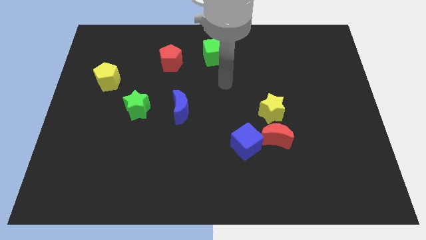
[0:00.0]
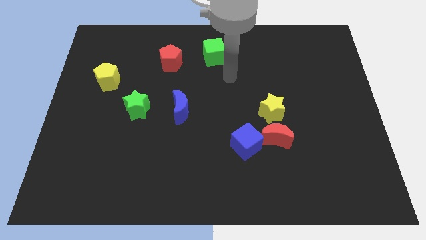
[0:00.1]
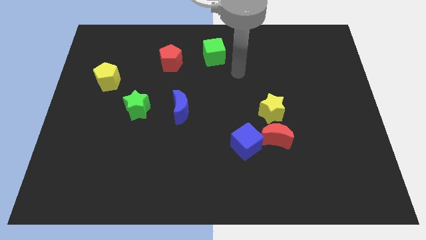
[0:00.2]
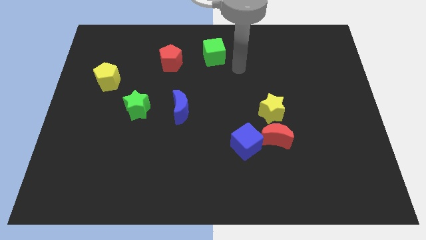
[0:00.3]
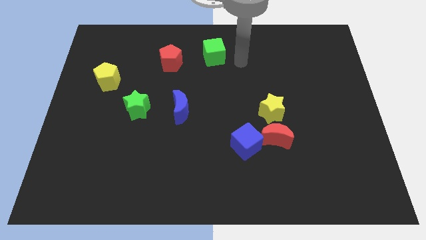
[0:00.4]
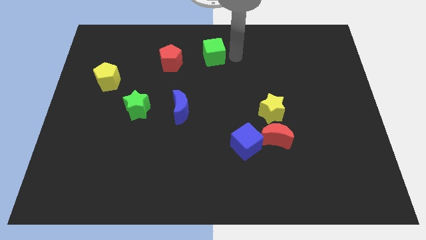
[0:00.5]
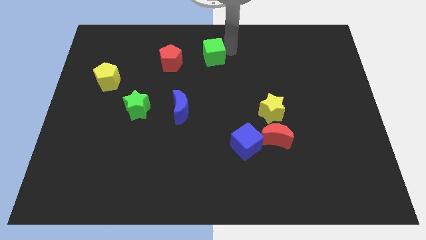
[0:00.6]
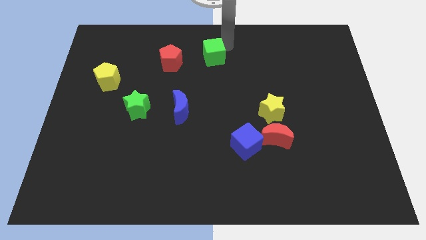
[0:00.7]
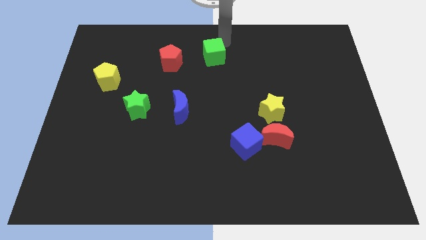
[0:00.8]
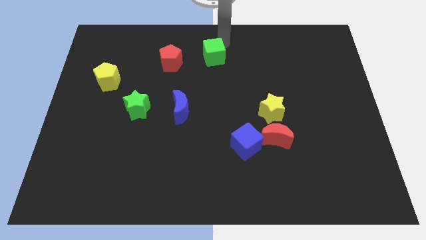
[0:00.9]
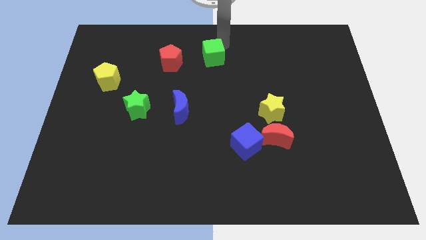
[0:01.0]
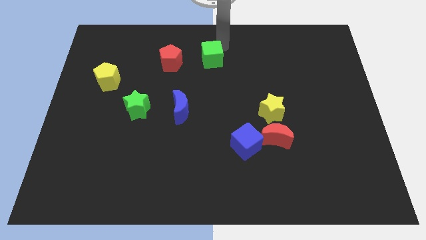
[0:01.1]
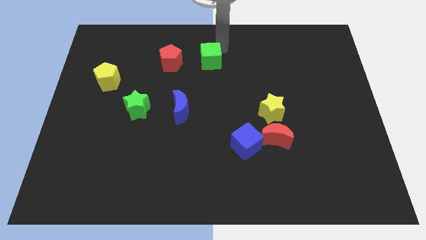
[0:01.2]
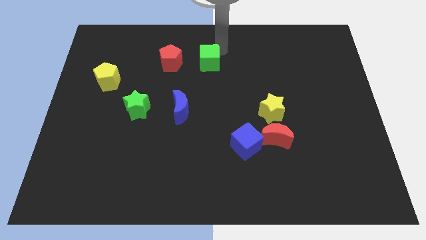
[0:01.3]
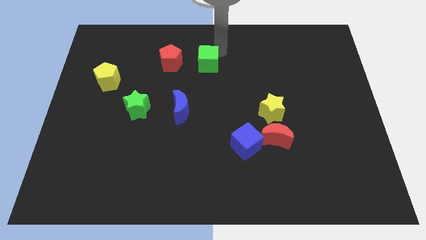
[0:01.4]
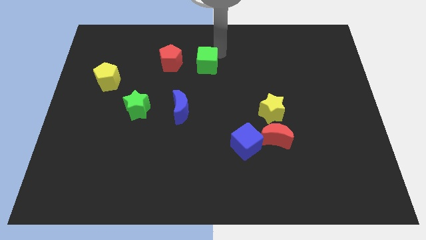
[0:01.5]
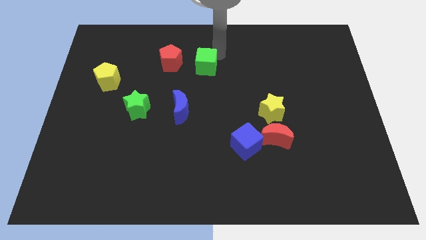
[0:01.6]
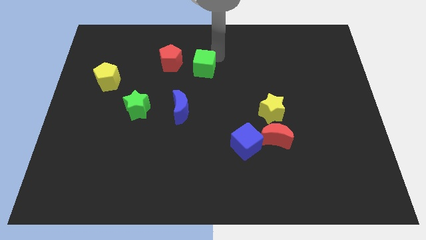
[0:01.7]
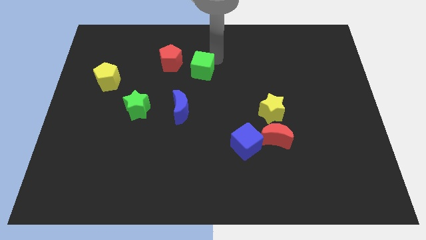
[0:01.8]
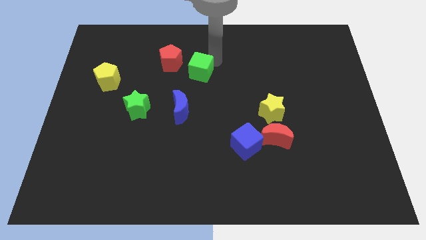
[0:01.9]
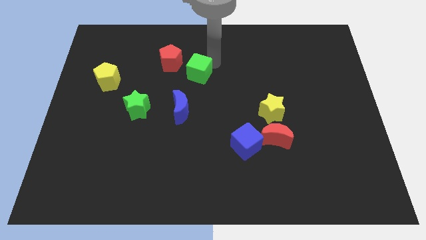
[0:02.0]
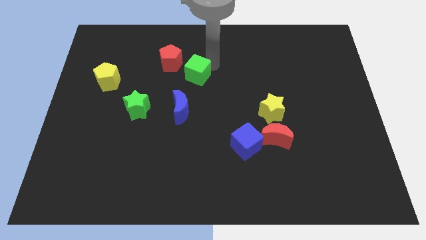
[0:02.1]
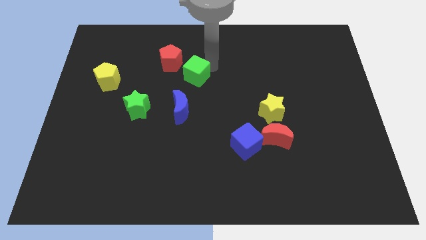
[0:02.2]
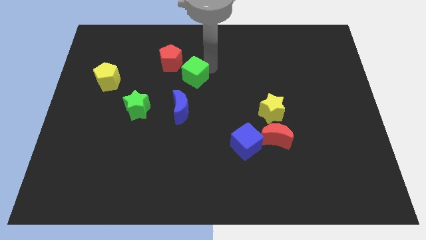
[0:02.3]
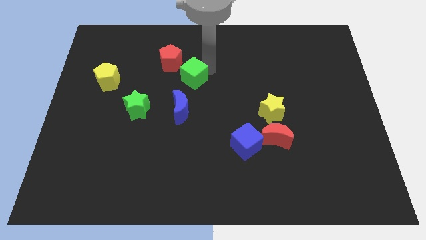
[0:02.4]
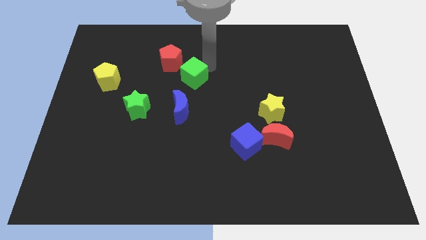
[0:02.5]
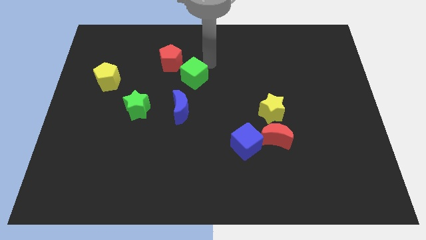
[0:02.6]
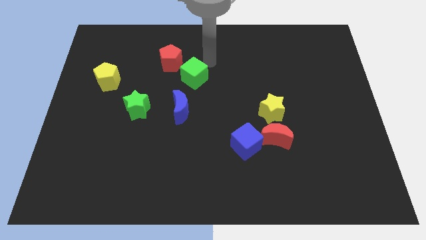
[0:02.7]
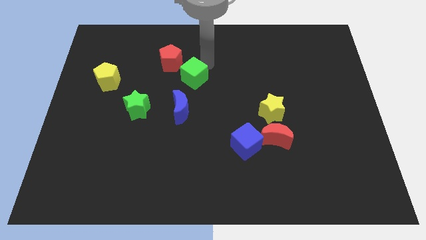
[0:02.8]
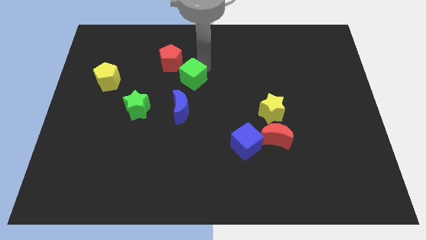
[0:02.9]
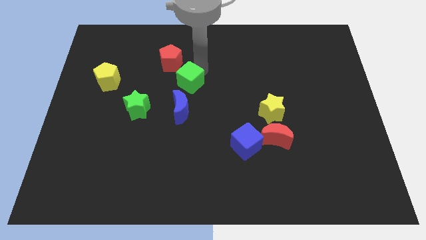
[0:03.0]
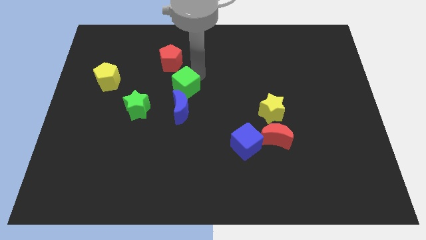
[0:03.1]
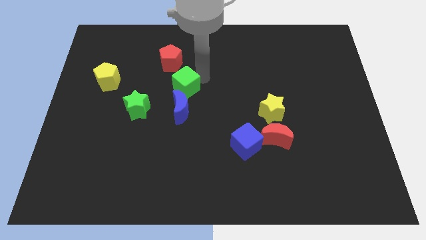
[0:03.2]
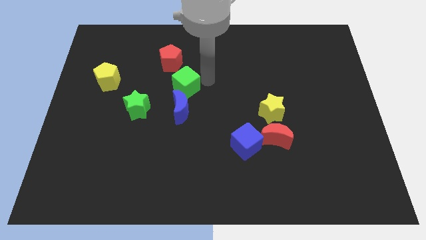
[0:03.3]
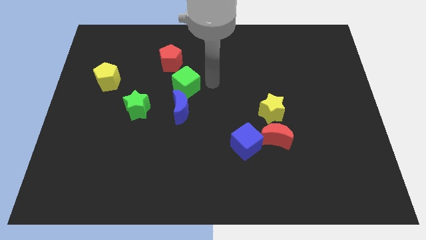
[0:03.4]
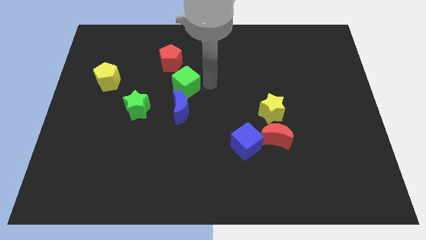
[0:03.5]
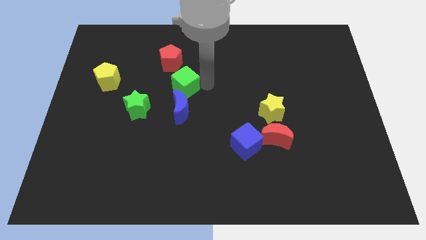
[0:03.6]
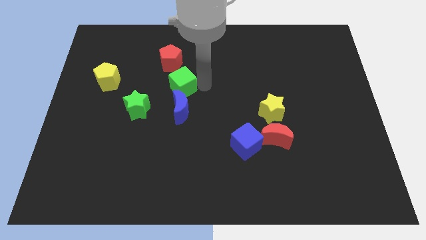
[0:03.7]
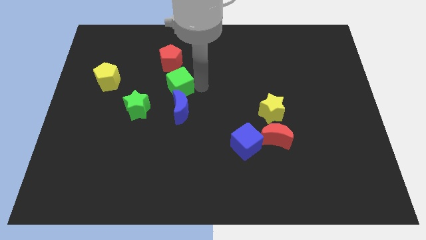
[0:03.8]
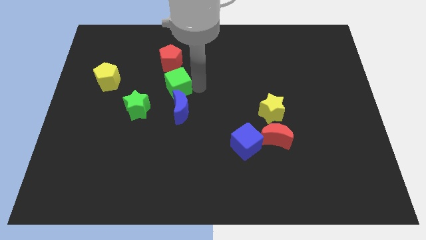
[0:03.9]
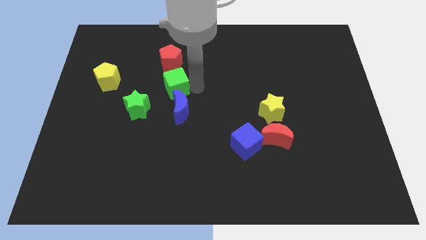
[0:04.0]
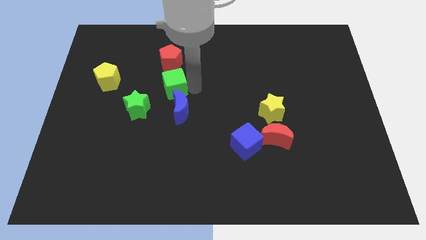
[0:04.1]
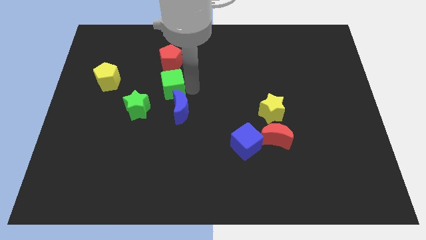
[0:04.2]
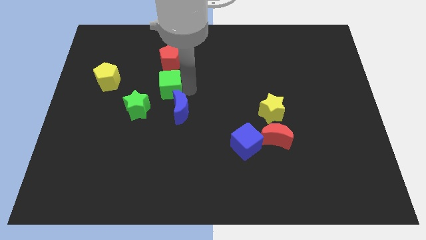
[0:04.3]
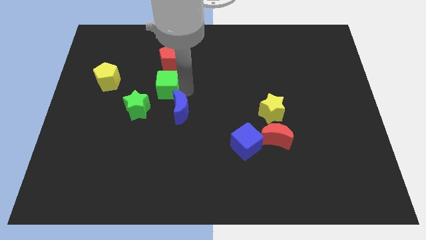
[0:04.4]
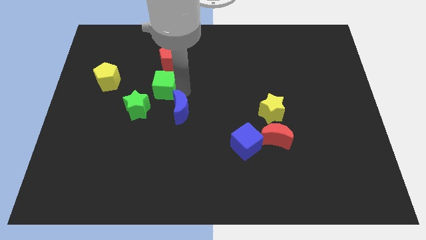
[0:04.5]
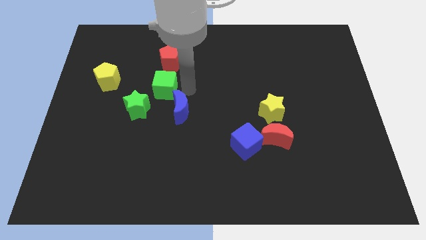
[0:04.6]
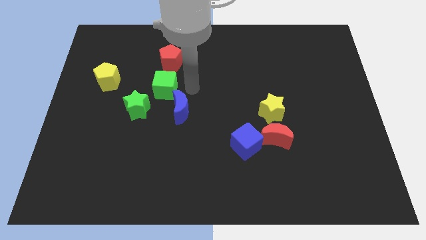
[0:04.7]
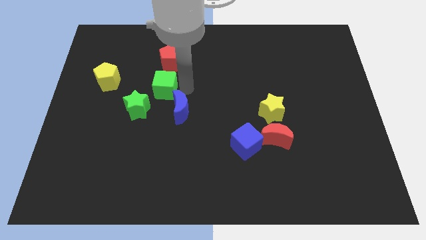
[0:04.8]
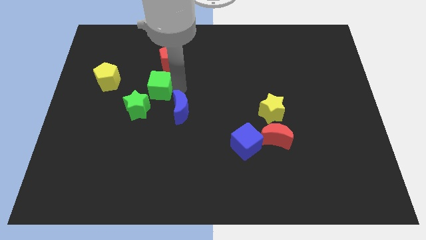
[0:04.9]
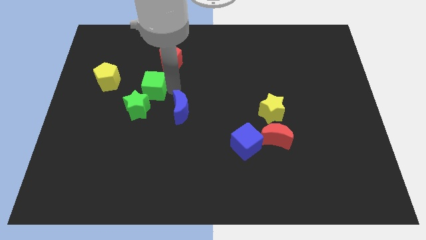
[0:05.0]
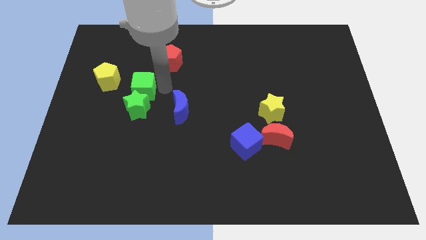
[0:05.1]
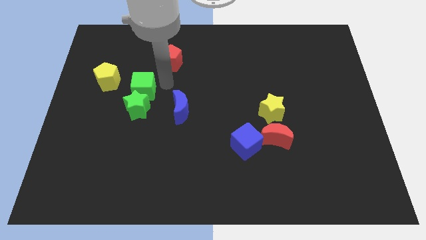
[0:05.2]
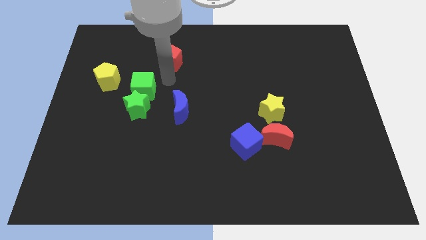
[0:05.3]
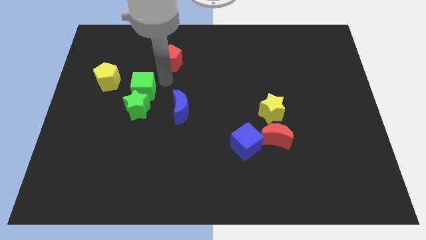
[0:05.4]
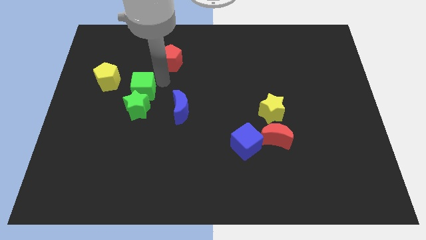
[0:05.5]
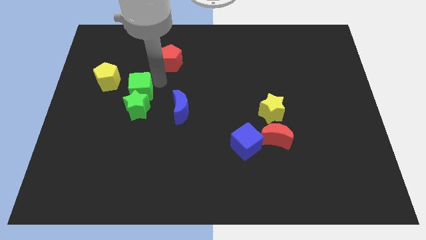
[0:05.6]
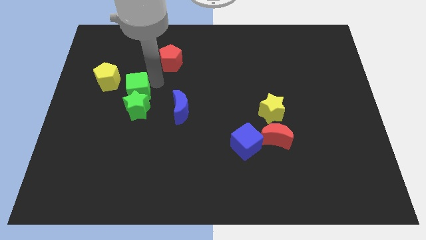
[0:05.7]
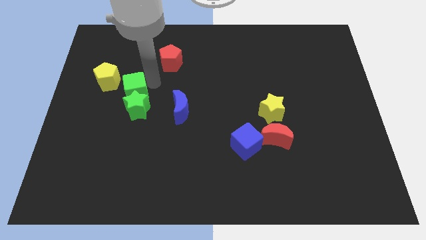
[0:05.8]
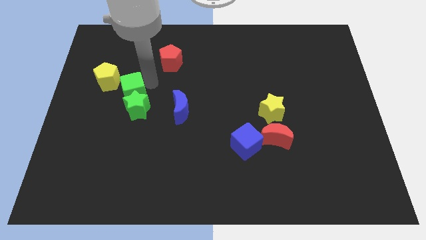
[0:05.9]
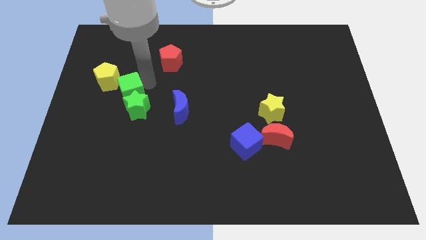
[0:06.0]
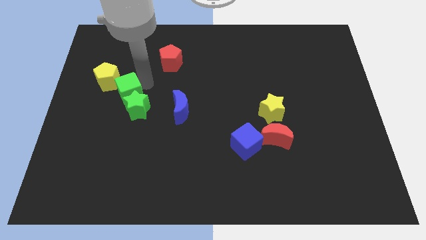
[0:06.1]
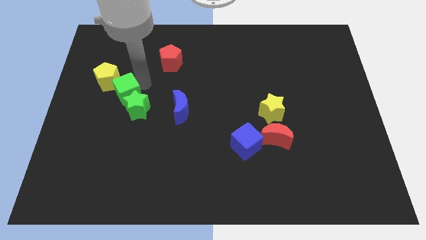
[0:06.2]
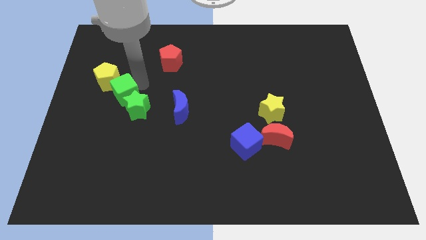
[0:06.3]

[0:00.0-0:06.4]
push the green cube to the left side of the green star

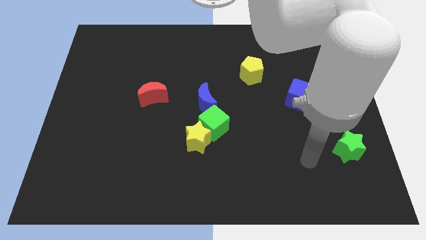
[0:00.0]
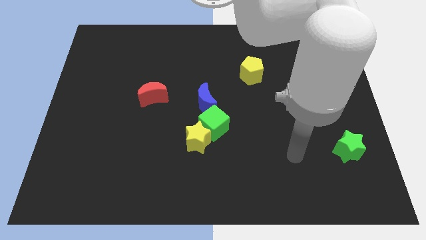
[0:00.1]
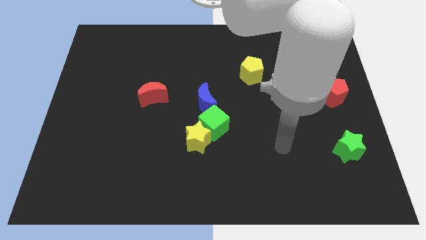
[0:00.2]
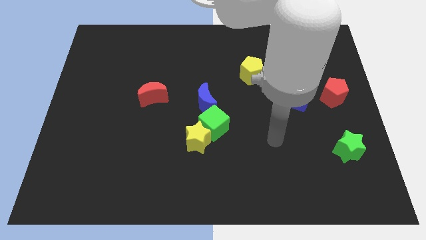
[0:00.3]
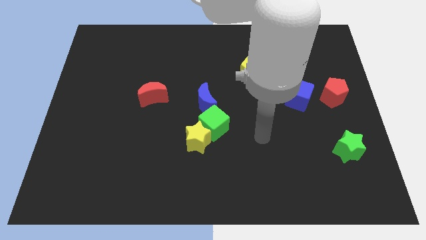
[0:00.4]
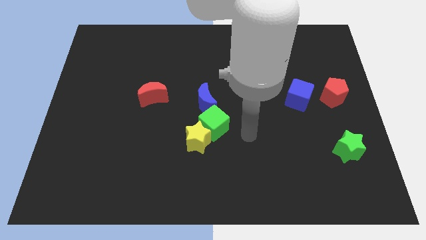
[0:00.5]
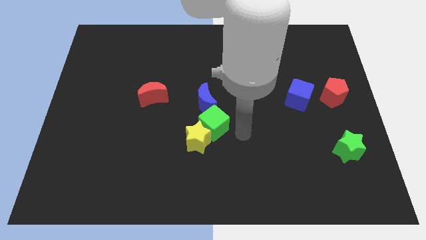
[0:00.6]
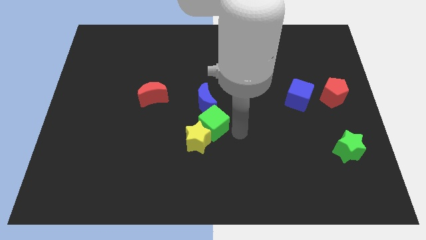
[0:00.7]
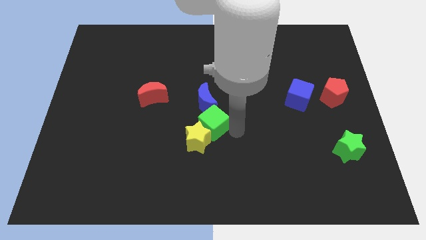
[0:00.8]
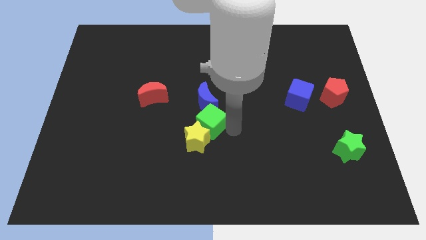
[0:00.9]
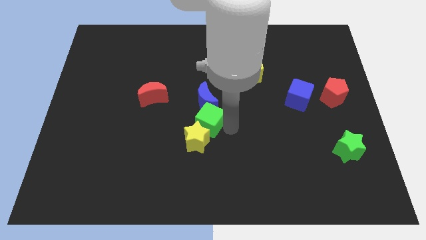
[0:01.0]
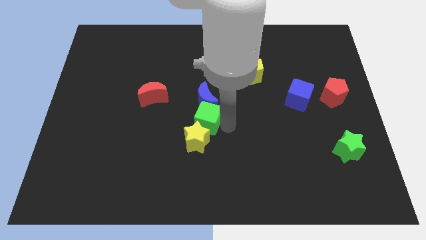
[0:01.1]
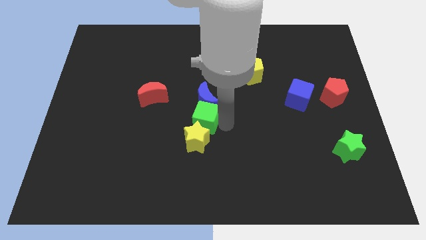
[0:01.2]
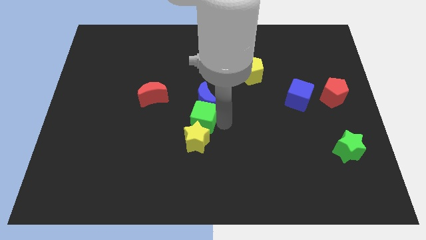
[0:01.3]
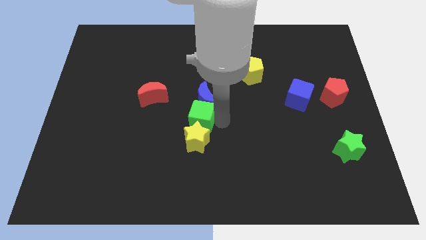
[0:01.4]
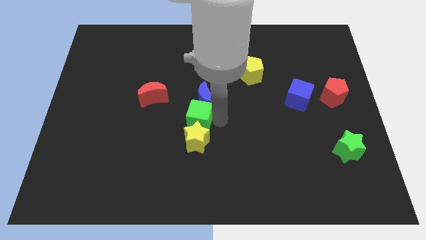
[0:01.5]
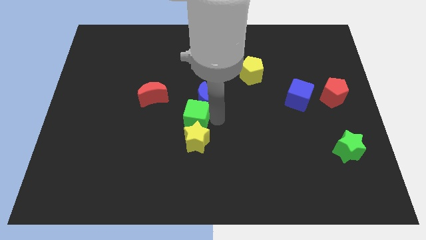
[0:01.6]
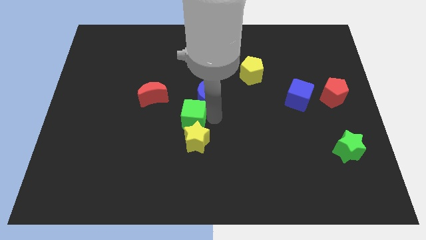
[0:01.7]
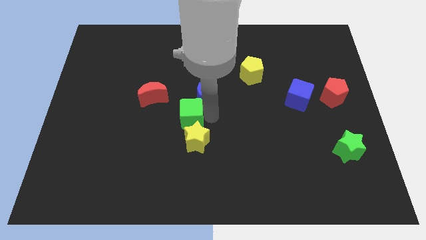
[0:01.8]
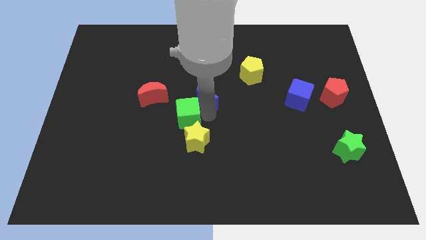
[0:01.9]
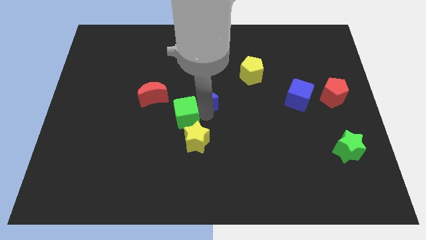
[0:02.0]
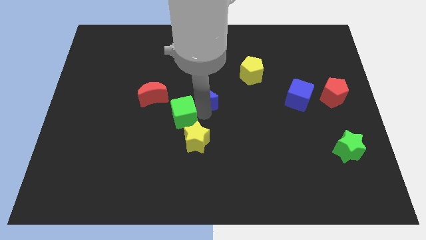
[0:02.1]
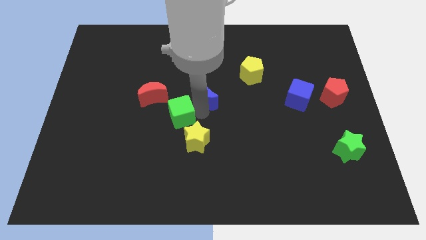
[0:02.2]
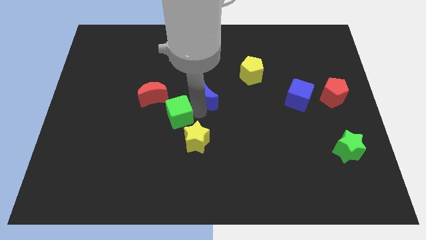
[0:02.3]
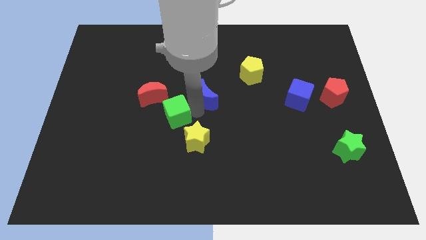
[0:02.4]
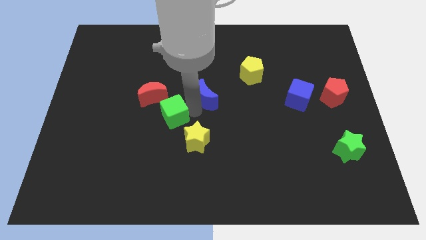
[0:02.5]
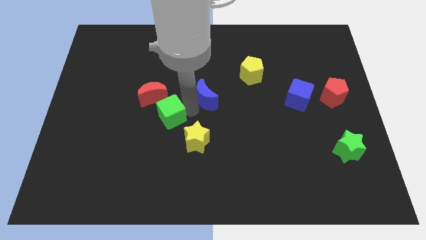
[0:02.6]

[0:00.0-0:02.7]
put the green cube to the bottom side of the red moon
